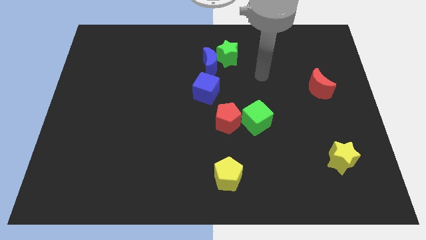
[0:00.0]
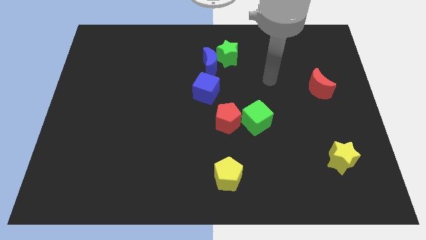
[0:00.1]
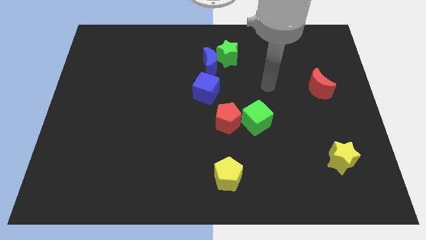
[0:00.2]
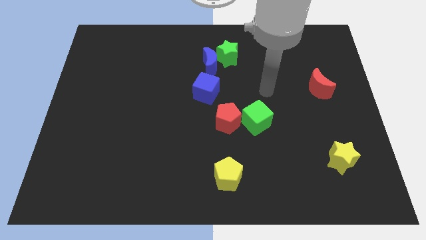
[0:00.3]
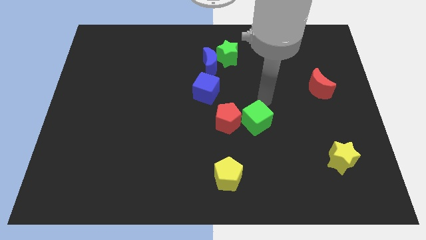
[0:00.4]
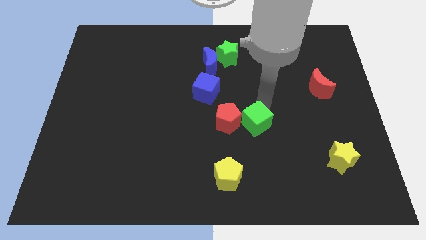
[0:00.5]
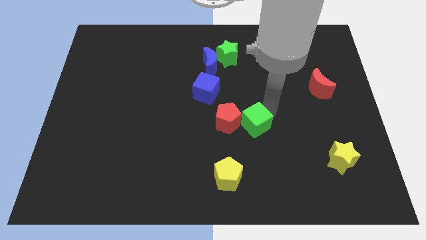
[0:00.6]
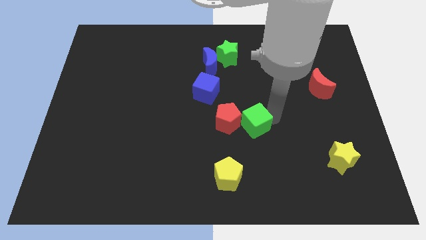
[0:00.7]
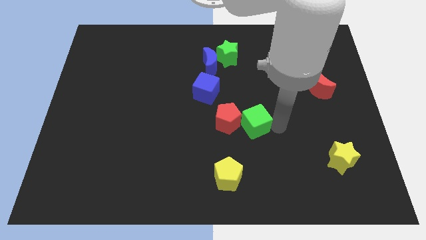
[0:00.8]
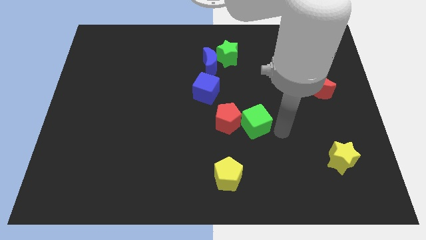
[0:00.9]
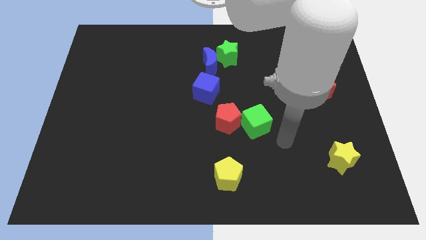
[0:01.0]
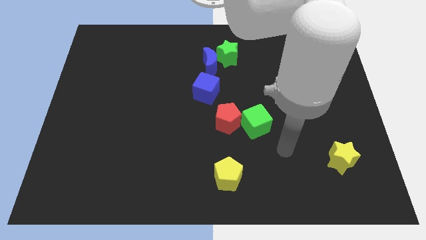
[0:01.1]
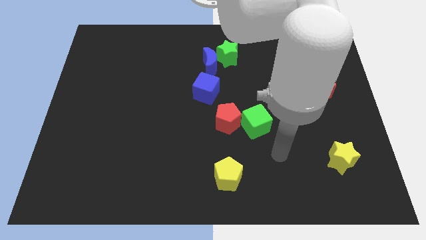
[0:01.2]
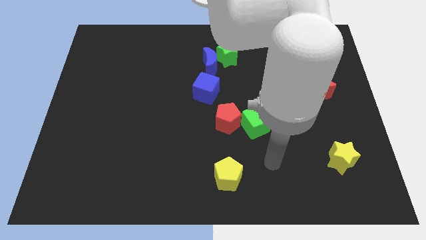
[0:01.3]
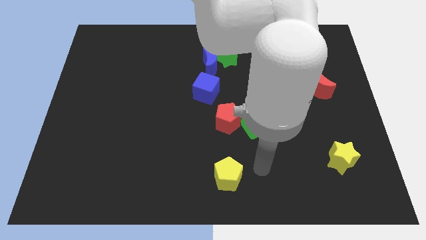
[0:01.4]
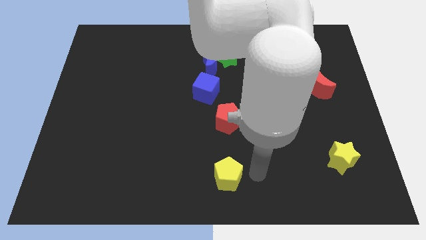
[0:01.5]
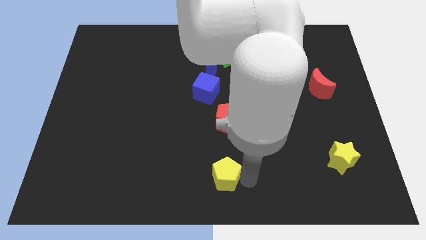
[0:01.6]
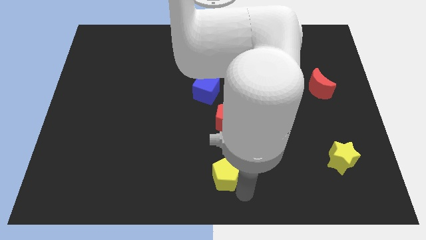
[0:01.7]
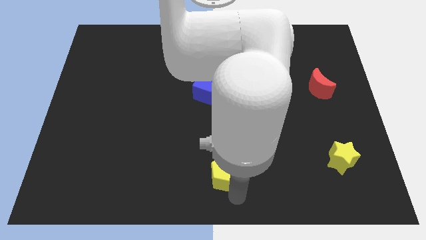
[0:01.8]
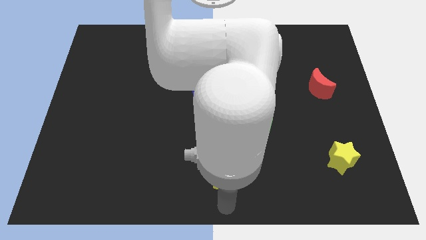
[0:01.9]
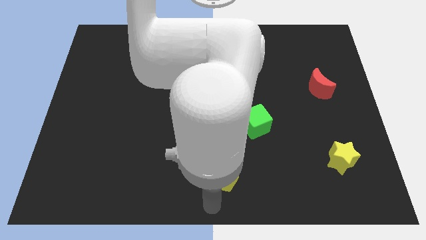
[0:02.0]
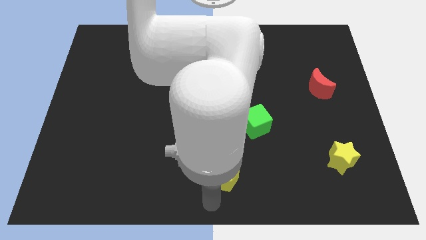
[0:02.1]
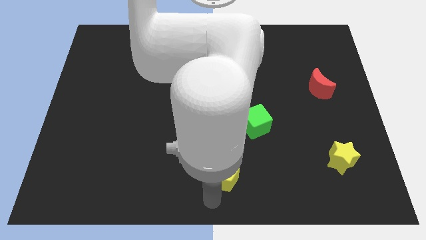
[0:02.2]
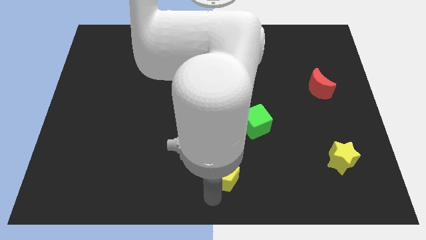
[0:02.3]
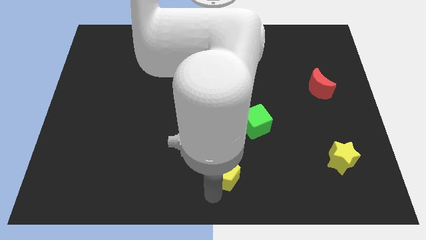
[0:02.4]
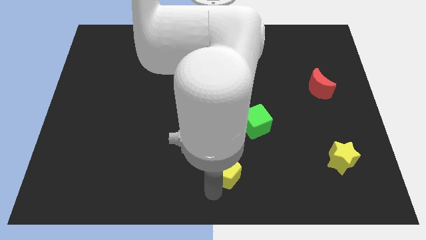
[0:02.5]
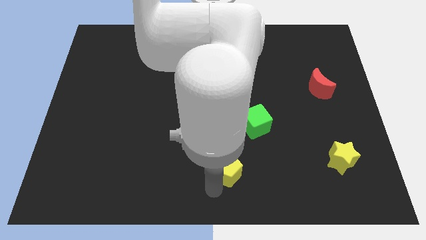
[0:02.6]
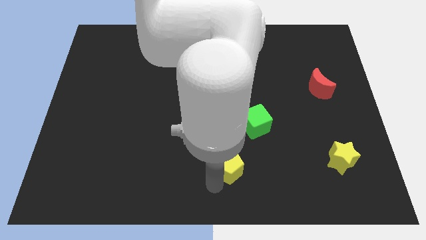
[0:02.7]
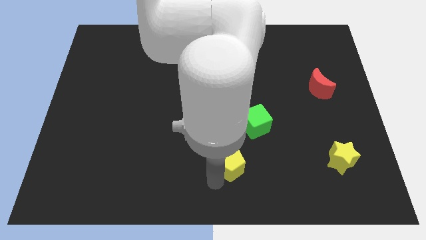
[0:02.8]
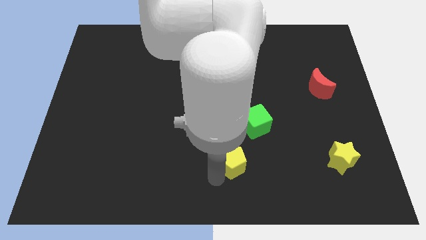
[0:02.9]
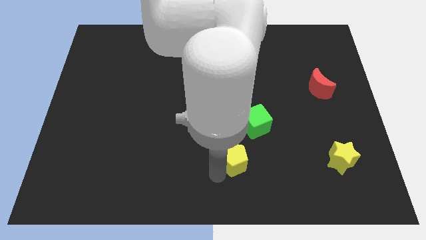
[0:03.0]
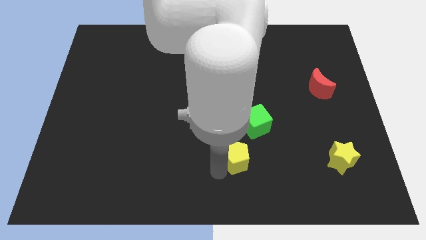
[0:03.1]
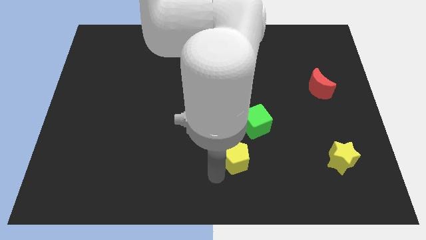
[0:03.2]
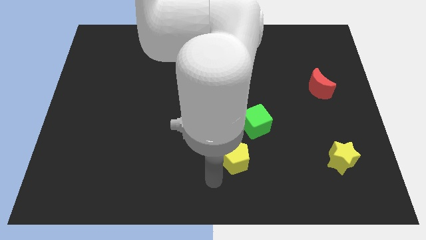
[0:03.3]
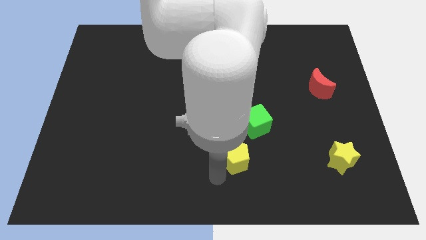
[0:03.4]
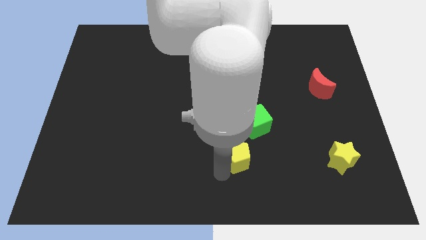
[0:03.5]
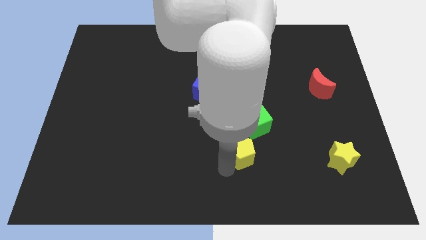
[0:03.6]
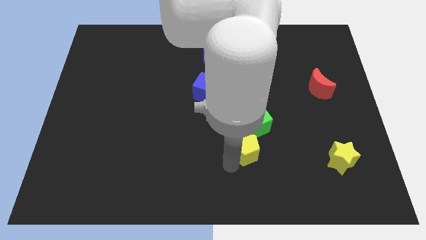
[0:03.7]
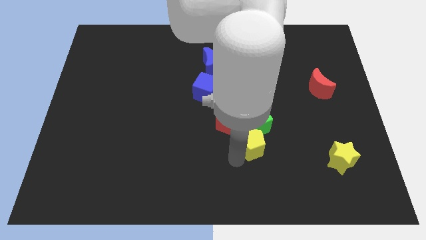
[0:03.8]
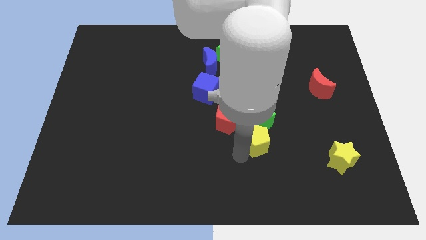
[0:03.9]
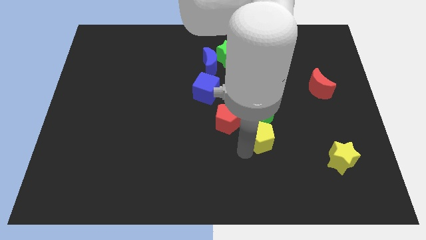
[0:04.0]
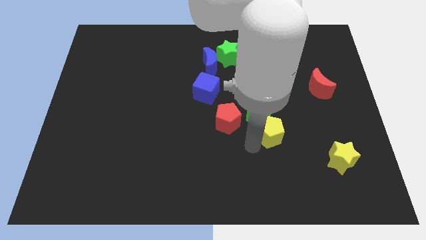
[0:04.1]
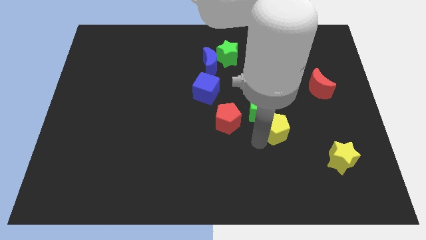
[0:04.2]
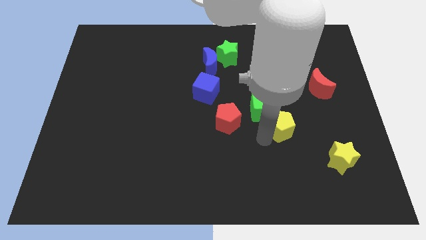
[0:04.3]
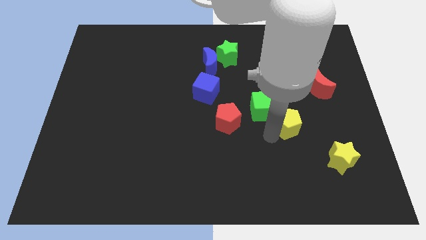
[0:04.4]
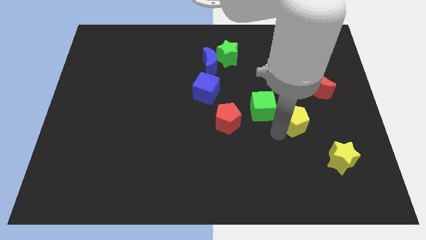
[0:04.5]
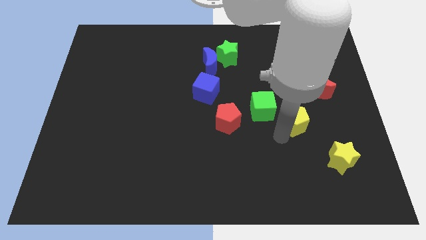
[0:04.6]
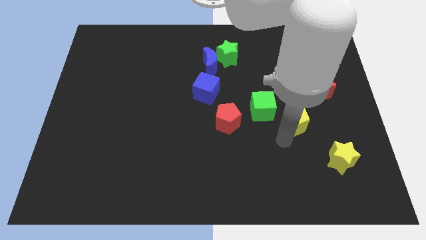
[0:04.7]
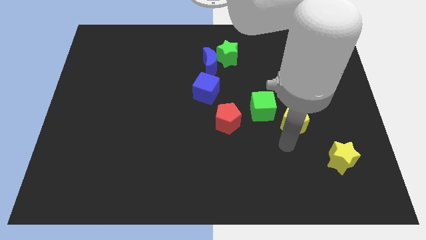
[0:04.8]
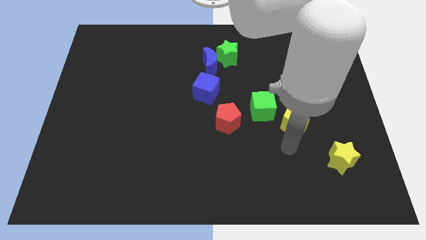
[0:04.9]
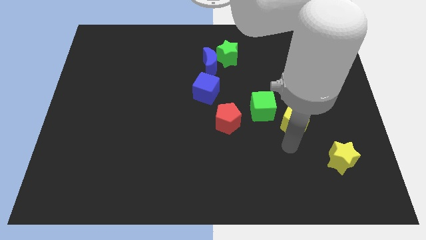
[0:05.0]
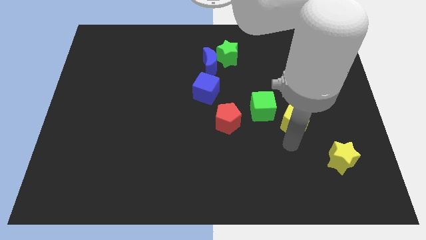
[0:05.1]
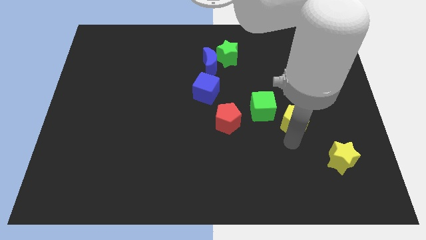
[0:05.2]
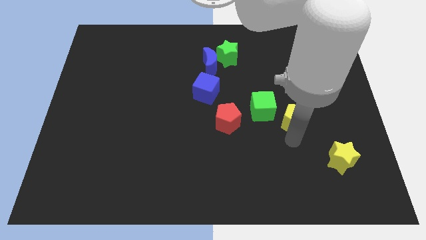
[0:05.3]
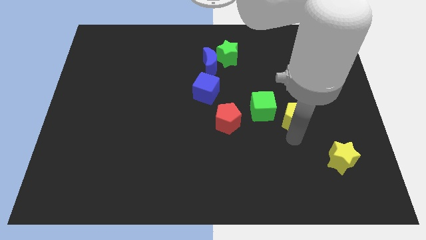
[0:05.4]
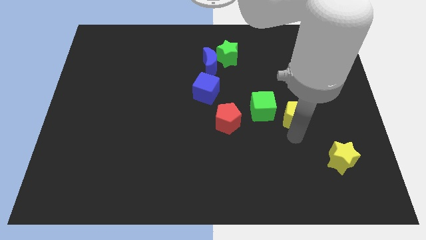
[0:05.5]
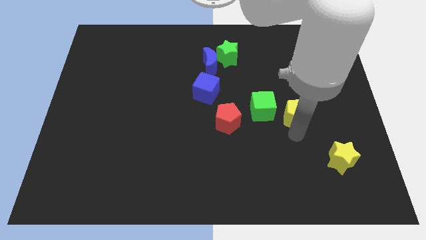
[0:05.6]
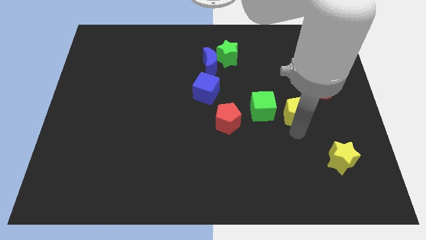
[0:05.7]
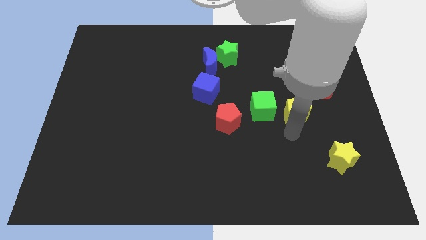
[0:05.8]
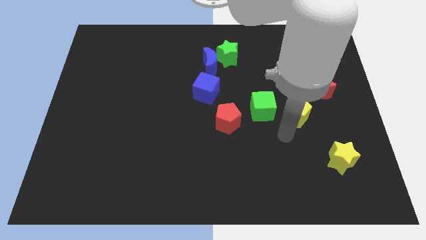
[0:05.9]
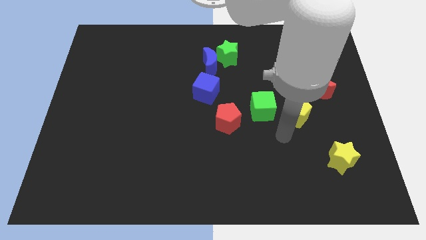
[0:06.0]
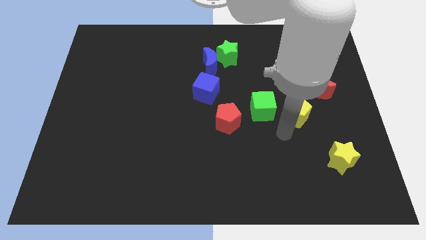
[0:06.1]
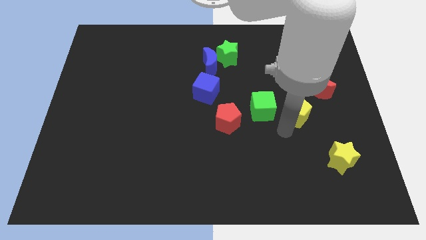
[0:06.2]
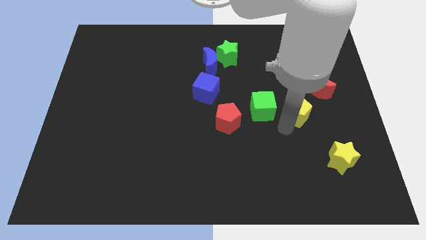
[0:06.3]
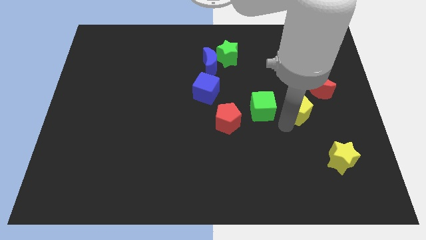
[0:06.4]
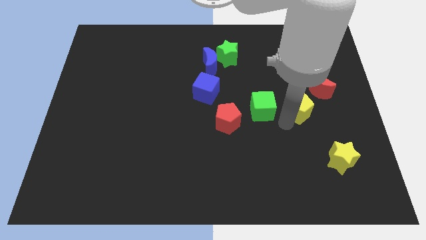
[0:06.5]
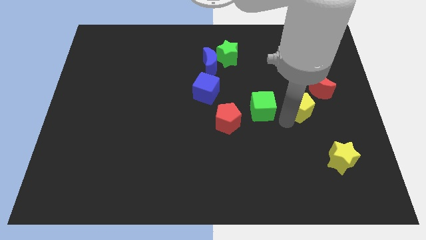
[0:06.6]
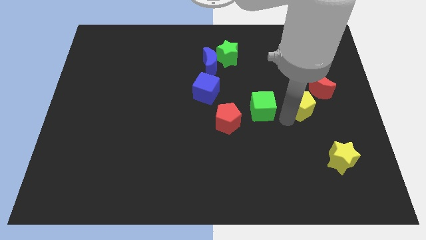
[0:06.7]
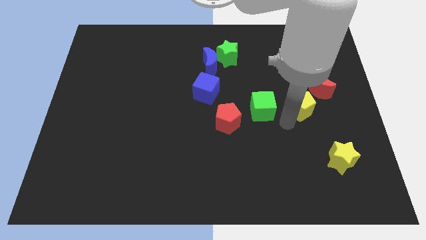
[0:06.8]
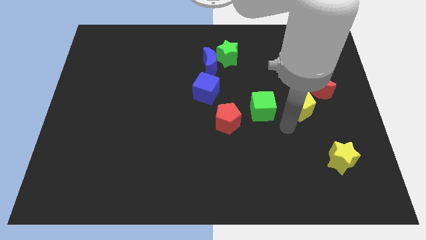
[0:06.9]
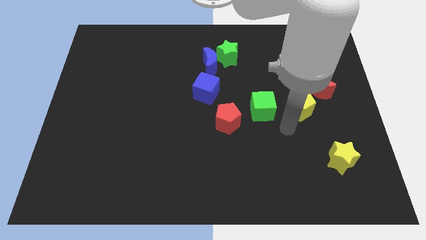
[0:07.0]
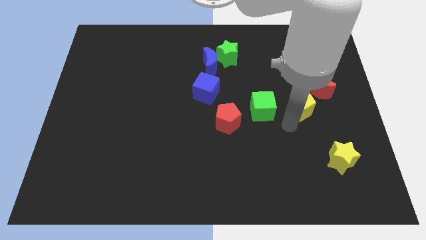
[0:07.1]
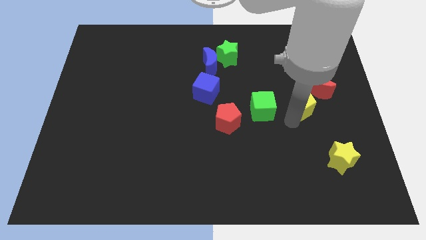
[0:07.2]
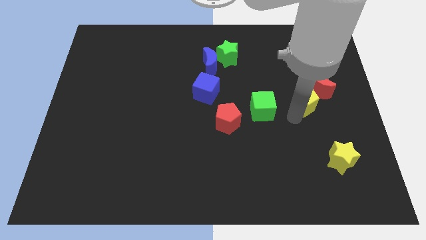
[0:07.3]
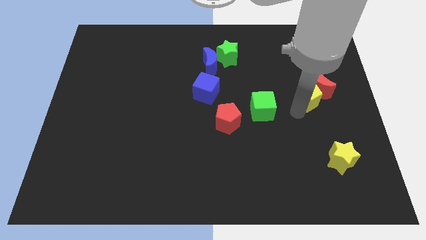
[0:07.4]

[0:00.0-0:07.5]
push the yellow pentagon to the red moon
